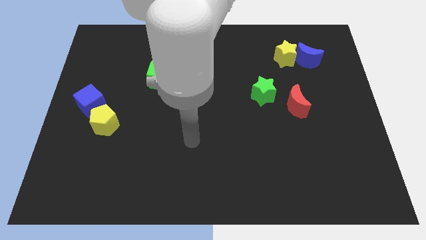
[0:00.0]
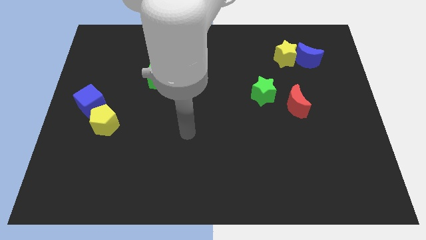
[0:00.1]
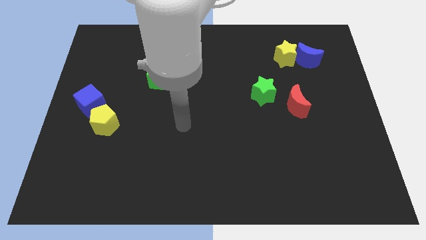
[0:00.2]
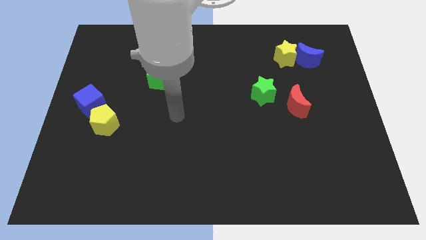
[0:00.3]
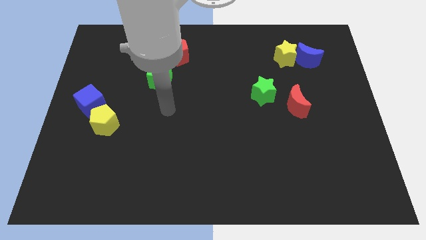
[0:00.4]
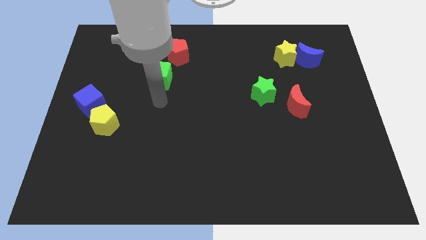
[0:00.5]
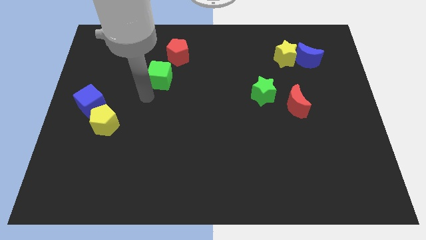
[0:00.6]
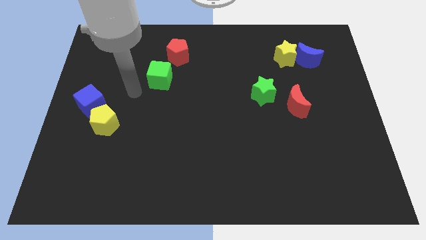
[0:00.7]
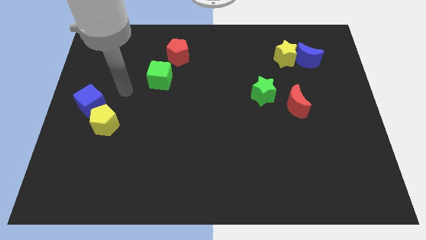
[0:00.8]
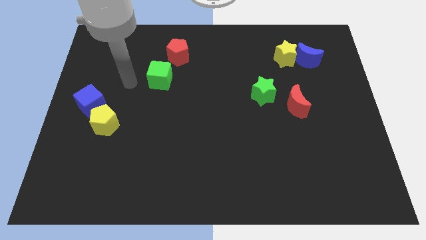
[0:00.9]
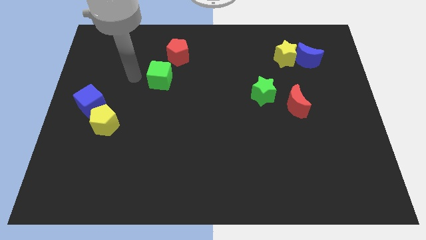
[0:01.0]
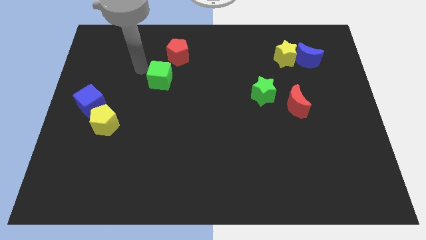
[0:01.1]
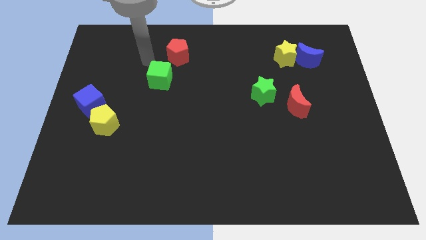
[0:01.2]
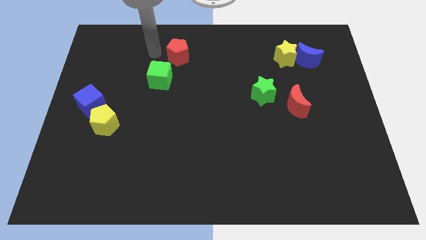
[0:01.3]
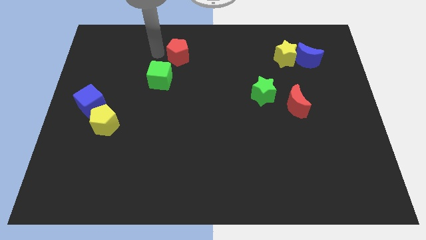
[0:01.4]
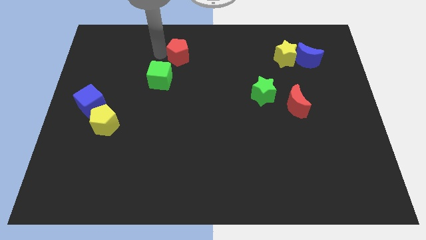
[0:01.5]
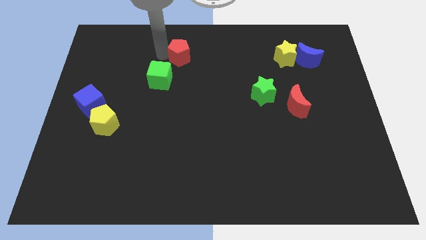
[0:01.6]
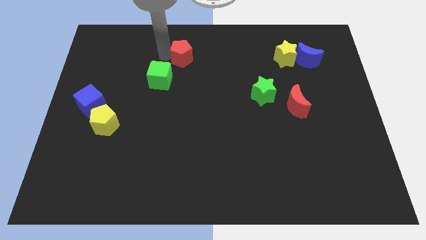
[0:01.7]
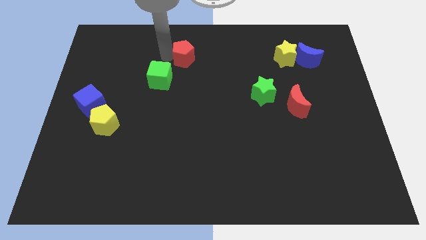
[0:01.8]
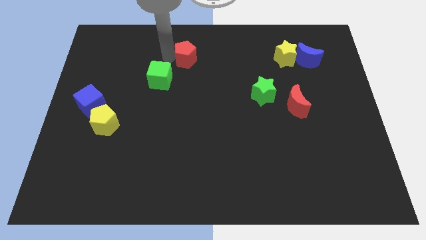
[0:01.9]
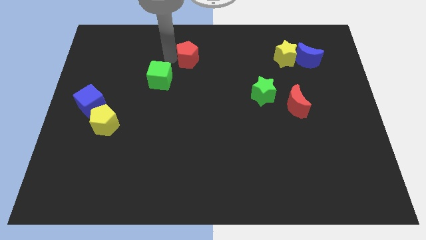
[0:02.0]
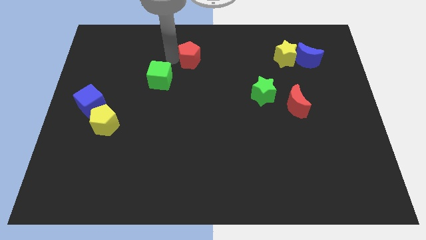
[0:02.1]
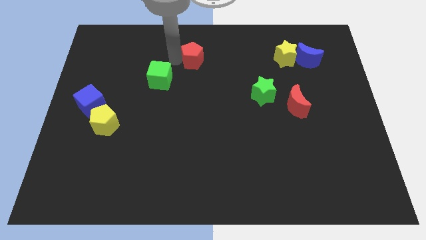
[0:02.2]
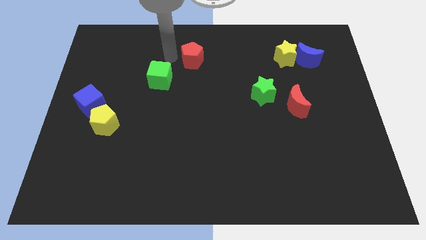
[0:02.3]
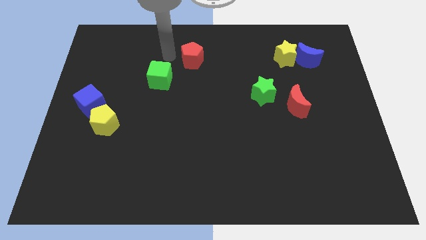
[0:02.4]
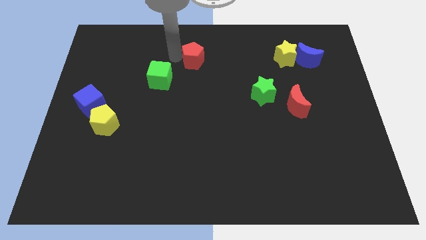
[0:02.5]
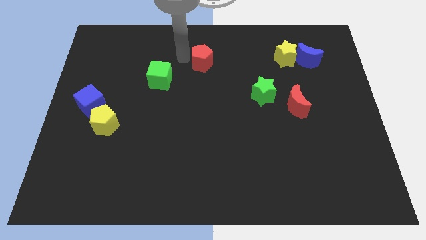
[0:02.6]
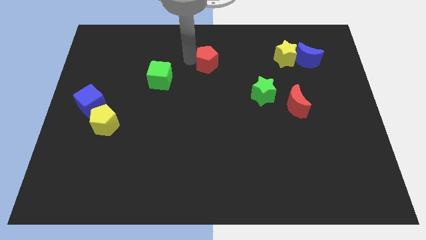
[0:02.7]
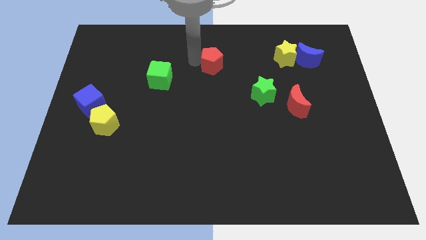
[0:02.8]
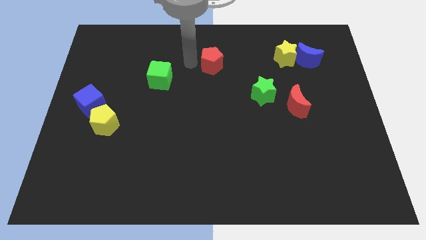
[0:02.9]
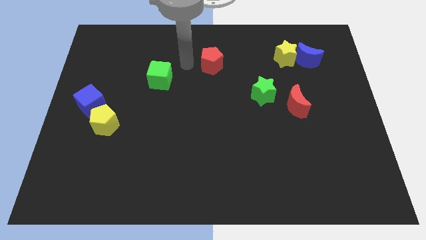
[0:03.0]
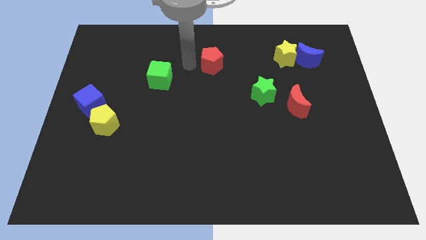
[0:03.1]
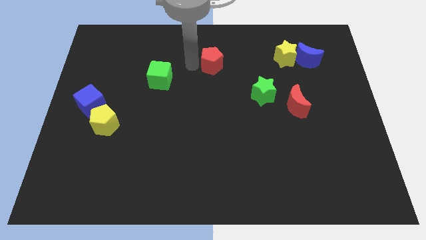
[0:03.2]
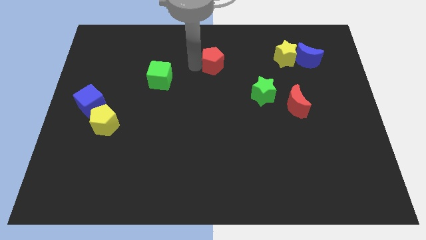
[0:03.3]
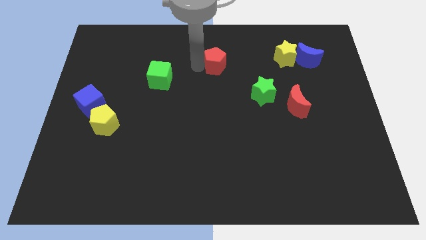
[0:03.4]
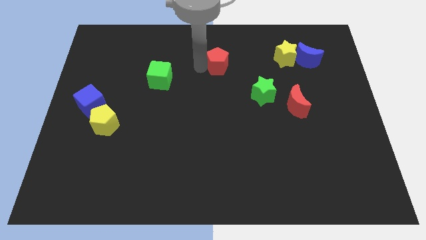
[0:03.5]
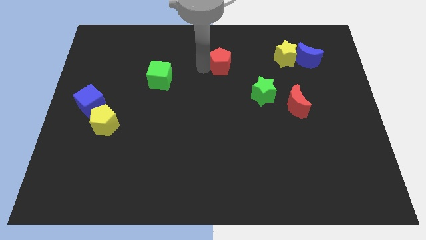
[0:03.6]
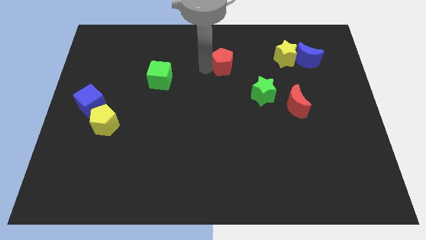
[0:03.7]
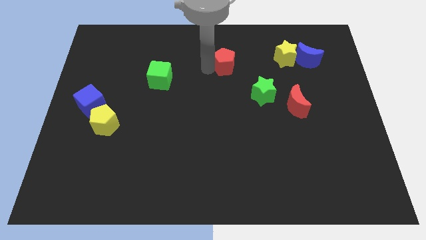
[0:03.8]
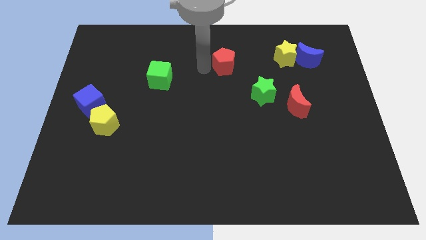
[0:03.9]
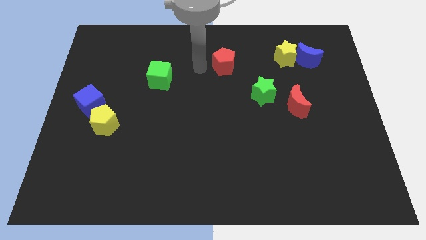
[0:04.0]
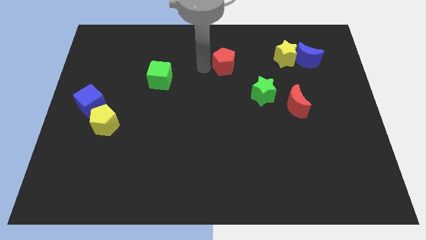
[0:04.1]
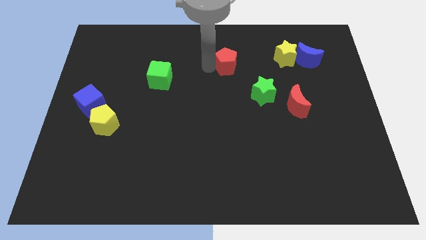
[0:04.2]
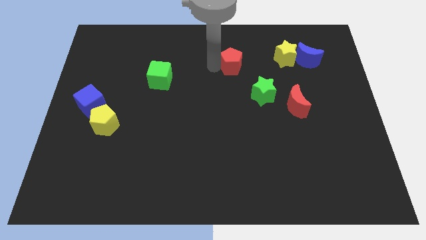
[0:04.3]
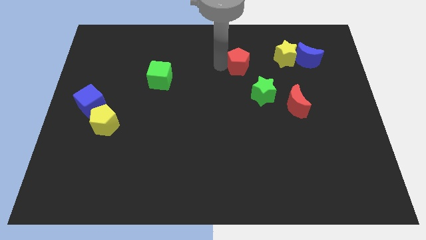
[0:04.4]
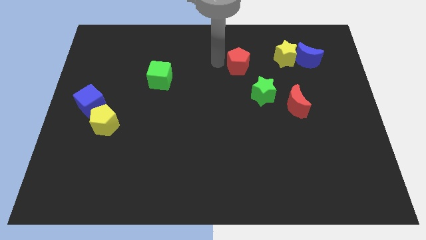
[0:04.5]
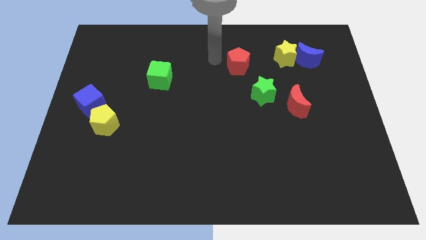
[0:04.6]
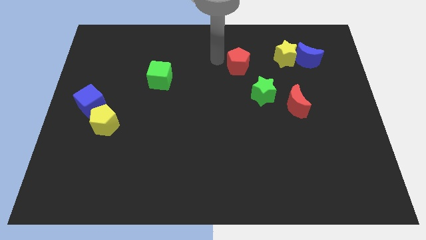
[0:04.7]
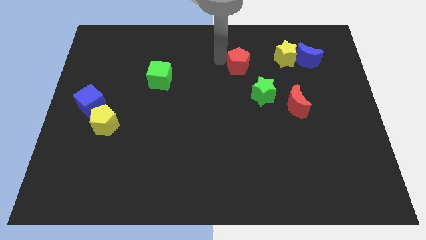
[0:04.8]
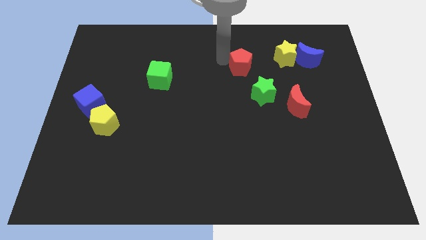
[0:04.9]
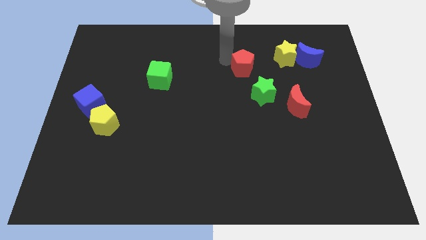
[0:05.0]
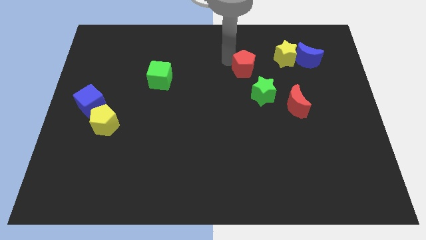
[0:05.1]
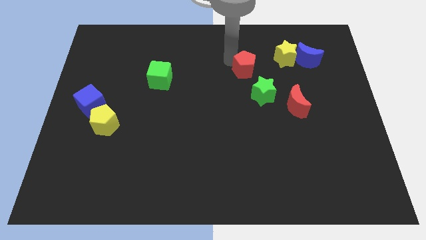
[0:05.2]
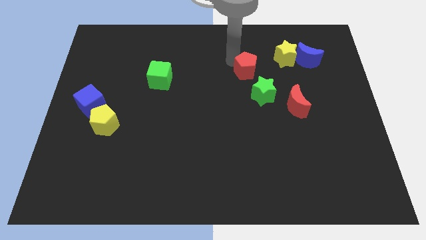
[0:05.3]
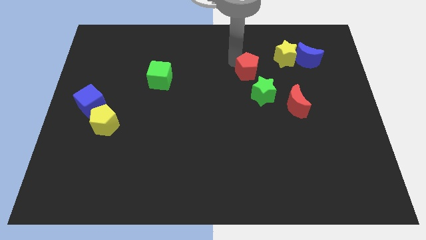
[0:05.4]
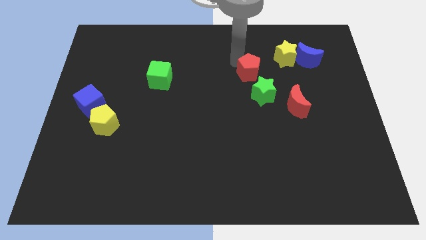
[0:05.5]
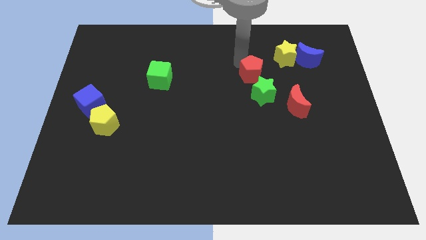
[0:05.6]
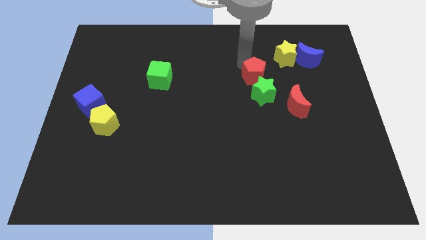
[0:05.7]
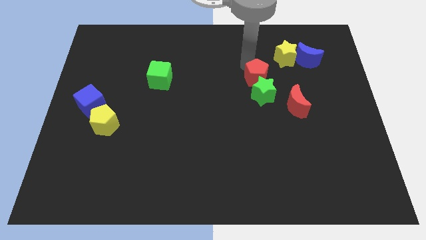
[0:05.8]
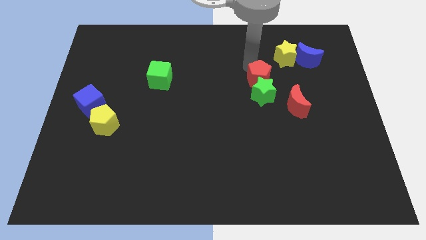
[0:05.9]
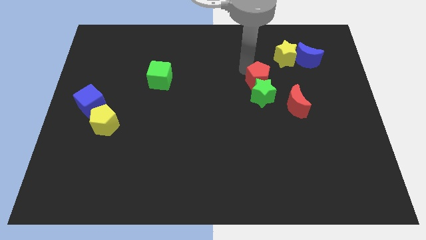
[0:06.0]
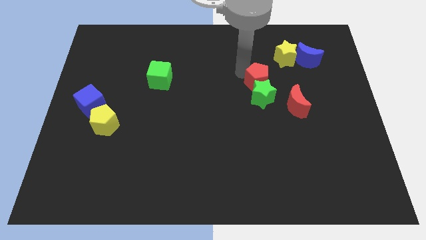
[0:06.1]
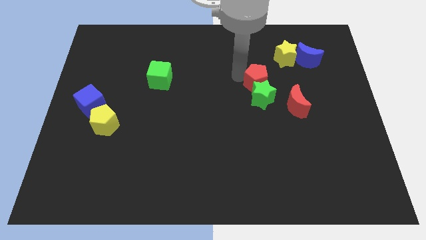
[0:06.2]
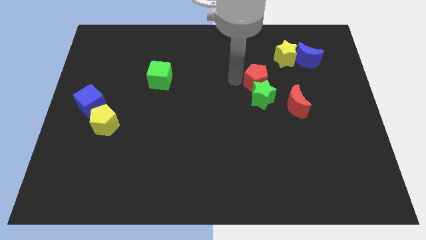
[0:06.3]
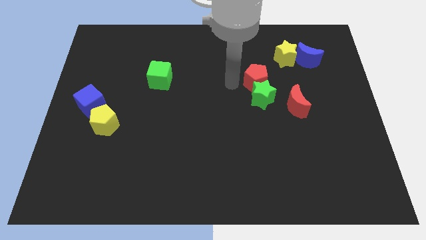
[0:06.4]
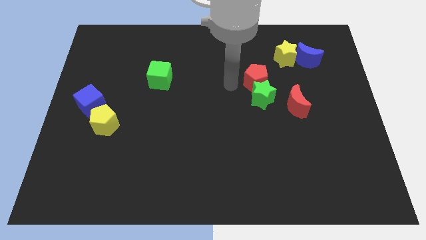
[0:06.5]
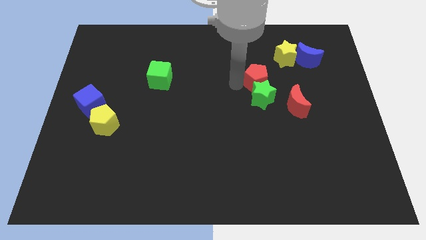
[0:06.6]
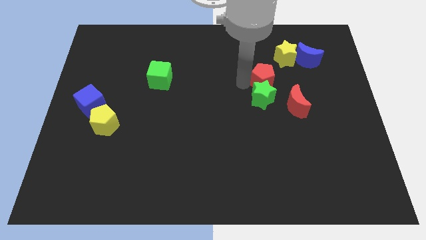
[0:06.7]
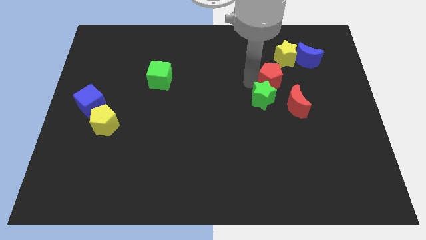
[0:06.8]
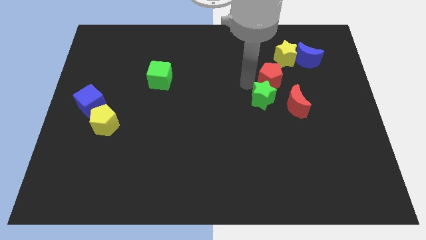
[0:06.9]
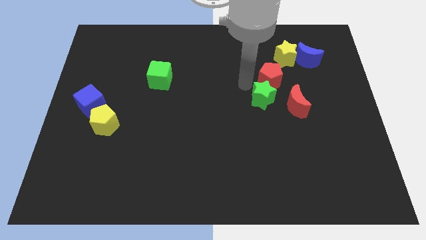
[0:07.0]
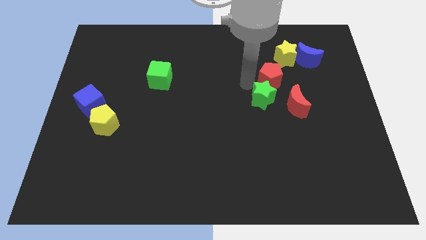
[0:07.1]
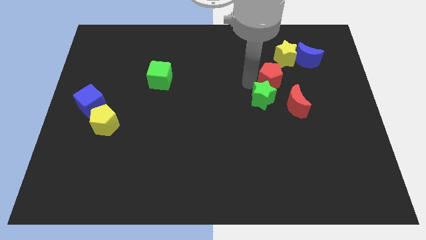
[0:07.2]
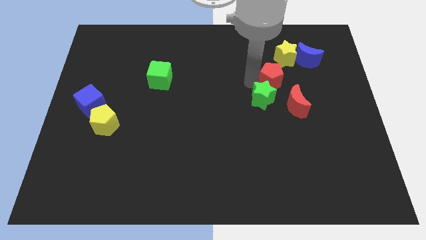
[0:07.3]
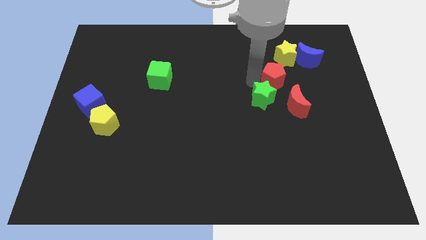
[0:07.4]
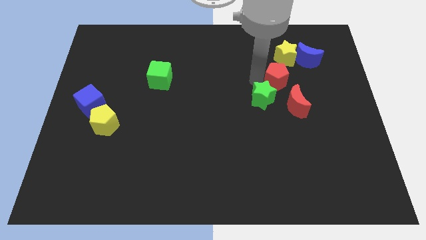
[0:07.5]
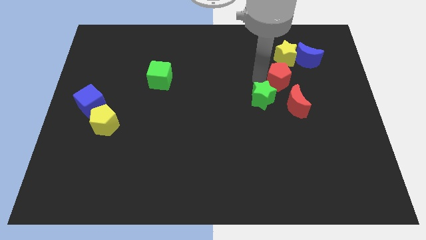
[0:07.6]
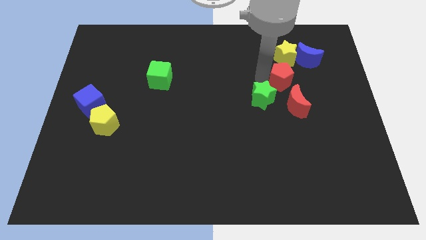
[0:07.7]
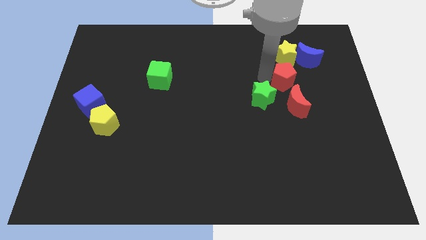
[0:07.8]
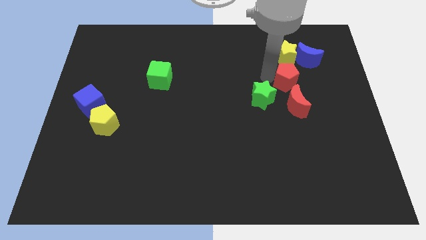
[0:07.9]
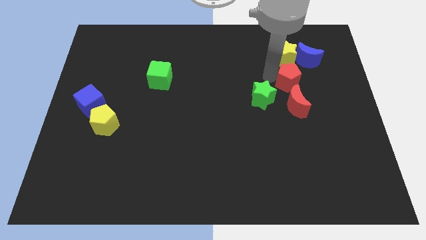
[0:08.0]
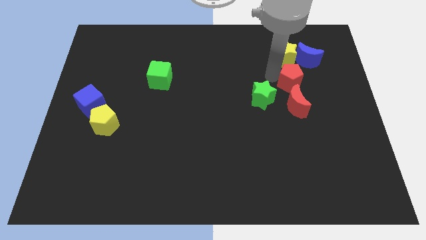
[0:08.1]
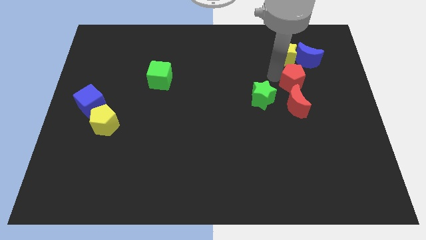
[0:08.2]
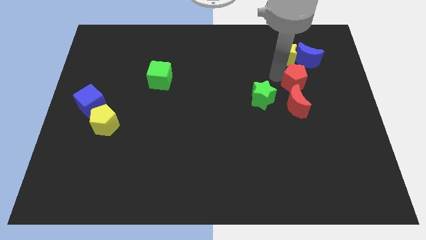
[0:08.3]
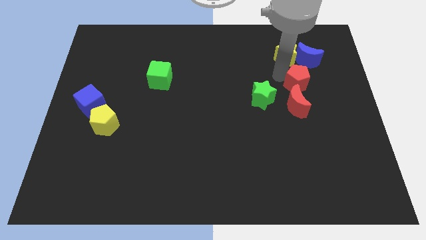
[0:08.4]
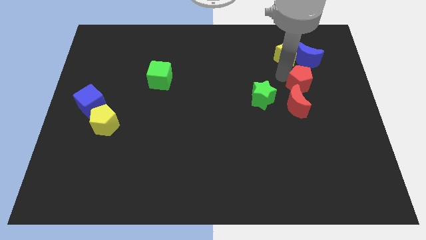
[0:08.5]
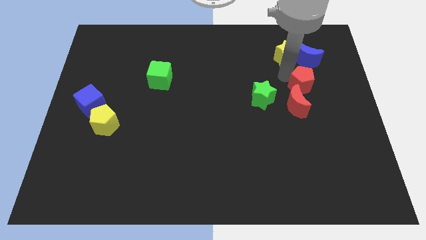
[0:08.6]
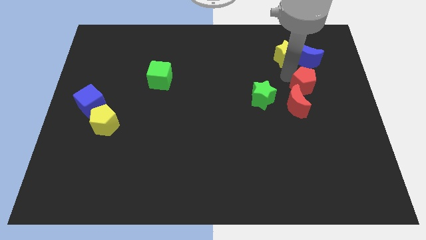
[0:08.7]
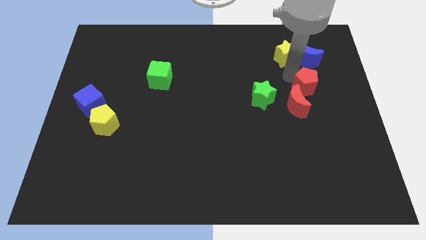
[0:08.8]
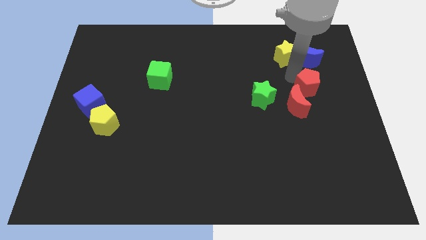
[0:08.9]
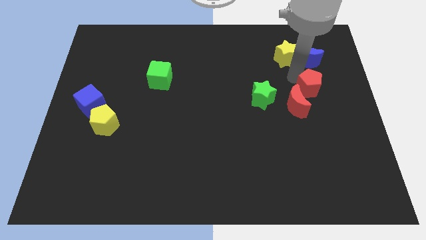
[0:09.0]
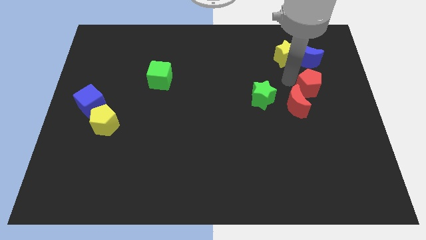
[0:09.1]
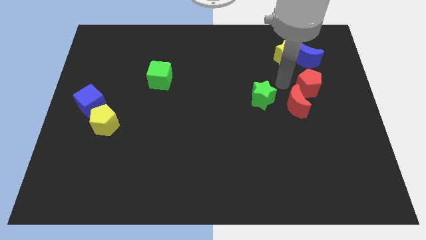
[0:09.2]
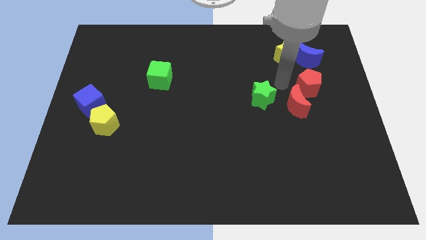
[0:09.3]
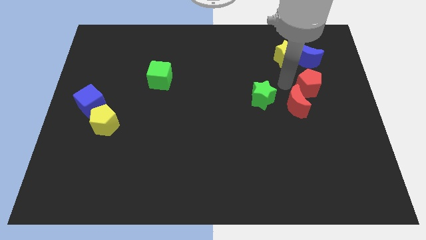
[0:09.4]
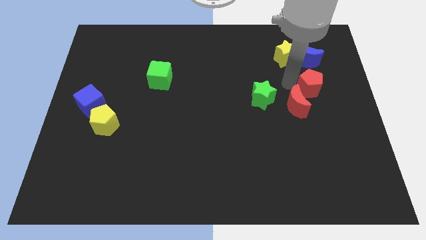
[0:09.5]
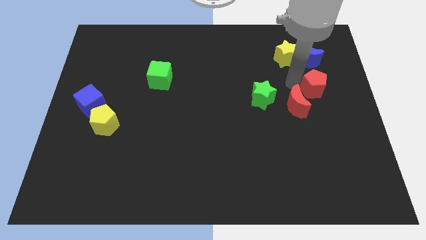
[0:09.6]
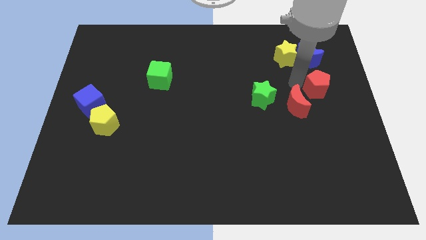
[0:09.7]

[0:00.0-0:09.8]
slide the red pentagon to the right side
